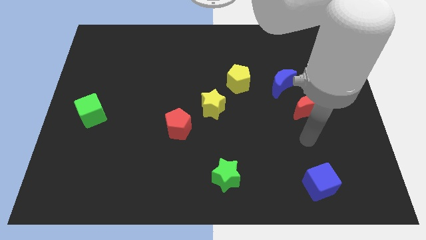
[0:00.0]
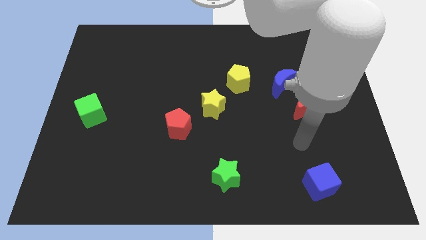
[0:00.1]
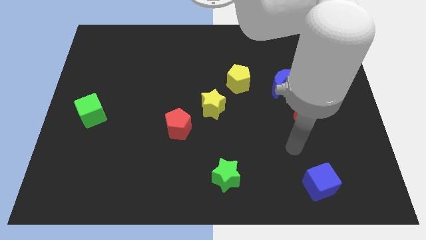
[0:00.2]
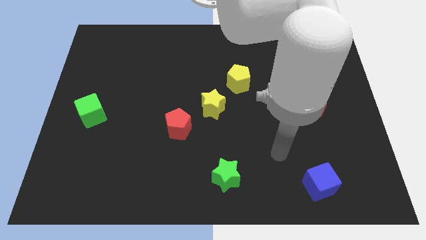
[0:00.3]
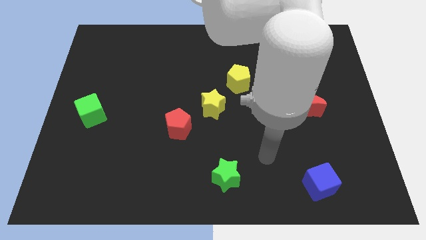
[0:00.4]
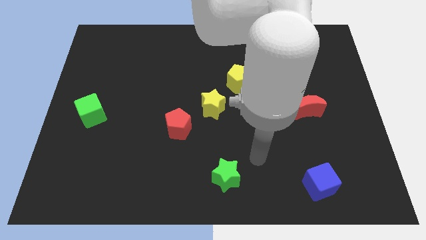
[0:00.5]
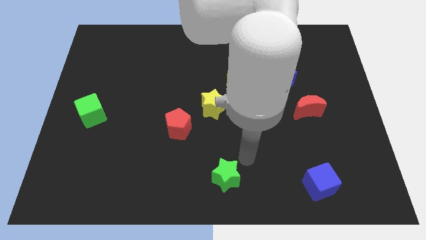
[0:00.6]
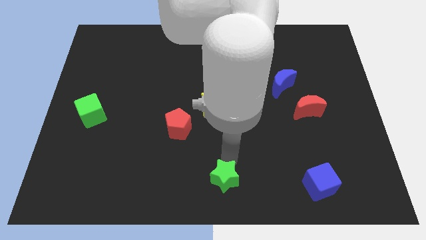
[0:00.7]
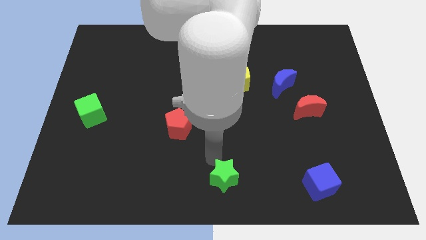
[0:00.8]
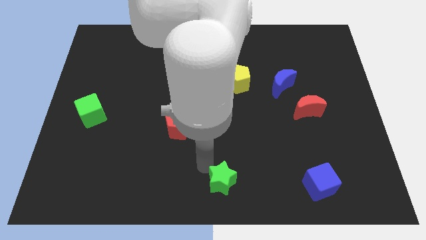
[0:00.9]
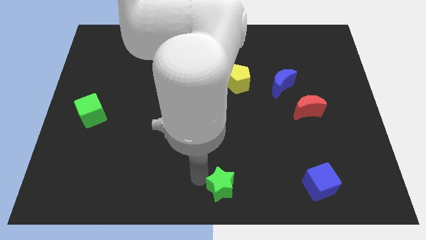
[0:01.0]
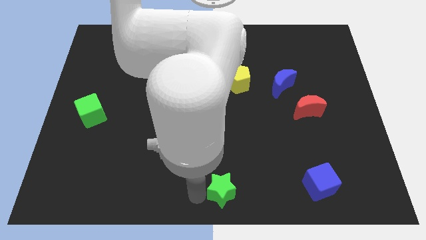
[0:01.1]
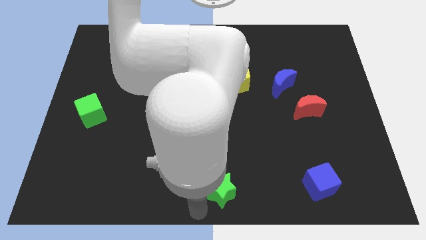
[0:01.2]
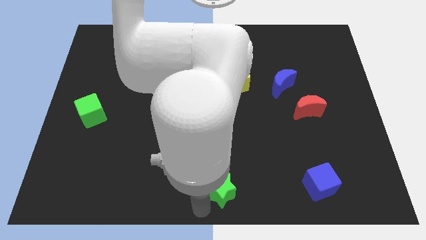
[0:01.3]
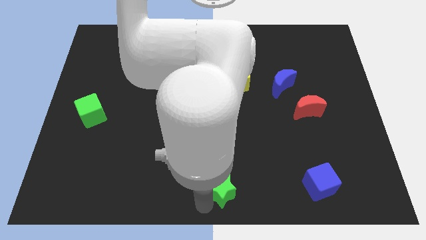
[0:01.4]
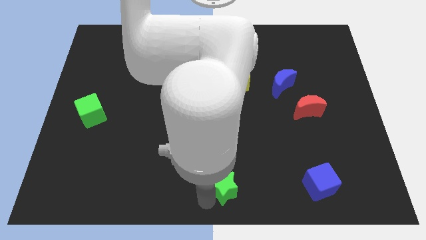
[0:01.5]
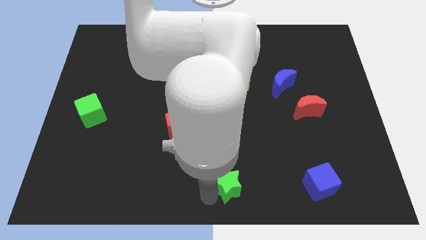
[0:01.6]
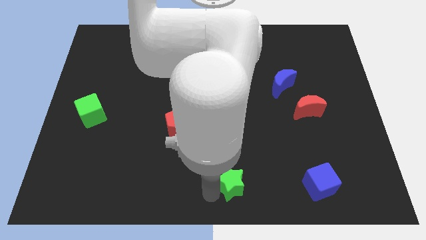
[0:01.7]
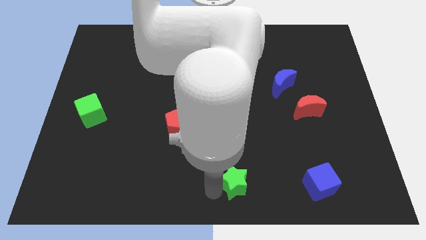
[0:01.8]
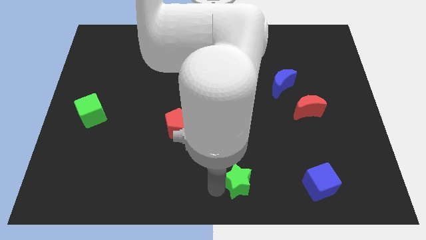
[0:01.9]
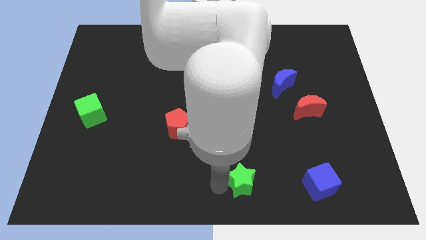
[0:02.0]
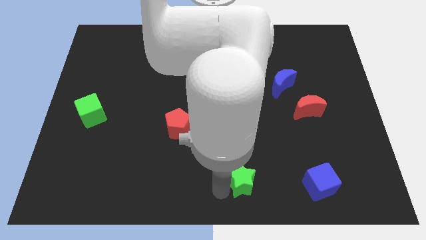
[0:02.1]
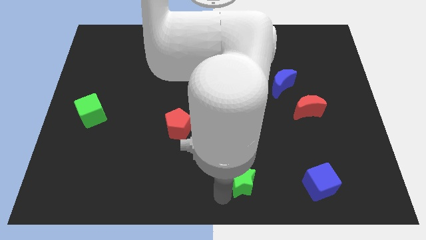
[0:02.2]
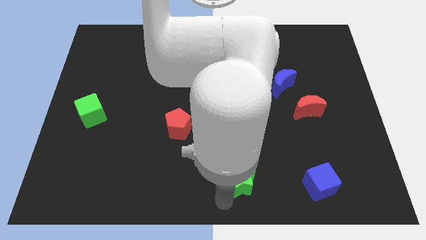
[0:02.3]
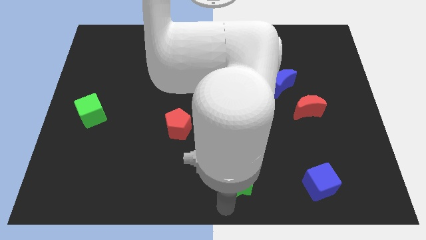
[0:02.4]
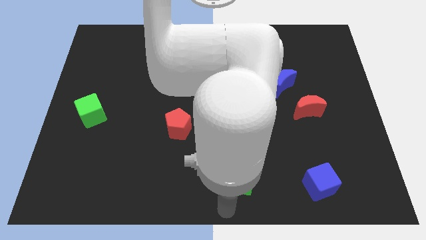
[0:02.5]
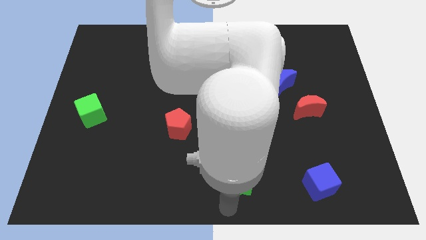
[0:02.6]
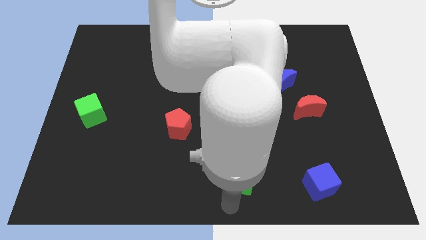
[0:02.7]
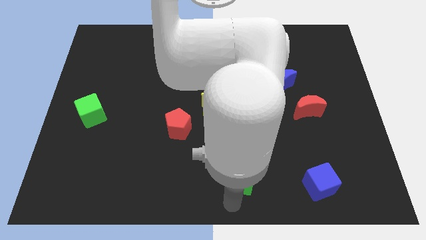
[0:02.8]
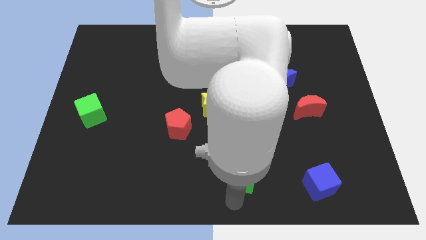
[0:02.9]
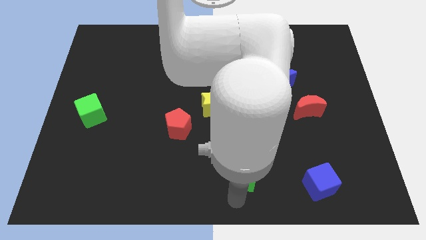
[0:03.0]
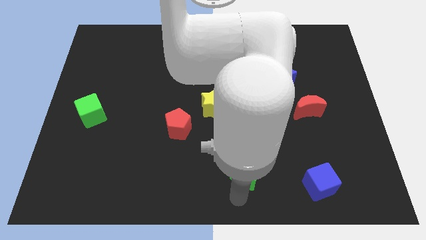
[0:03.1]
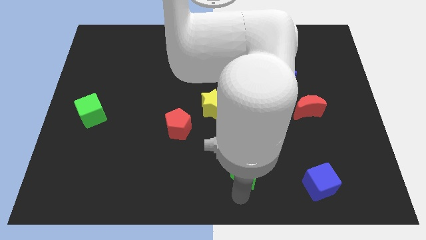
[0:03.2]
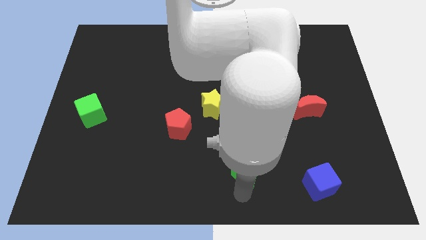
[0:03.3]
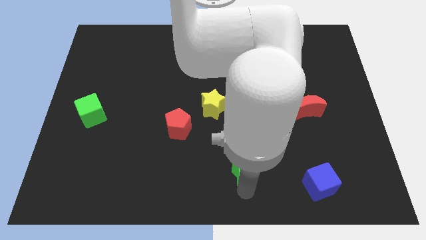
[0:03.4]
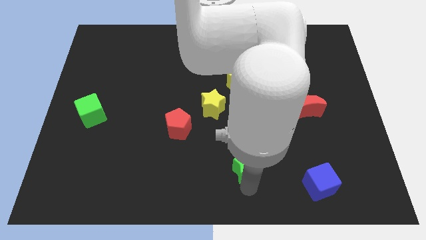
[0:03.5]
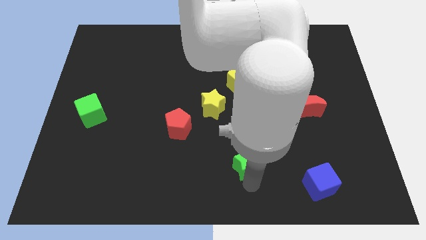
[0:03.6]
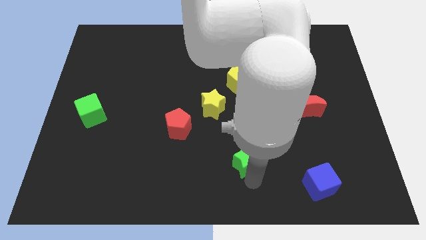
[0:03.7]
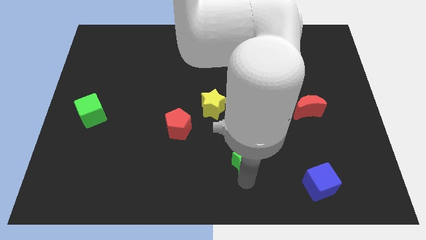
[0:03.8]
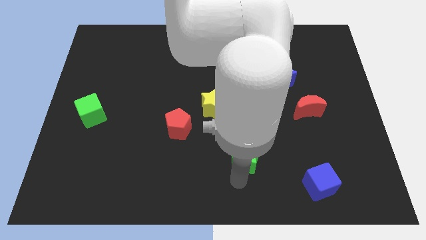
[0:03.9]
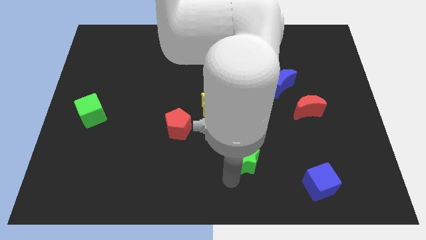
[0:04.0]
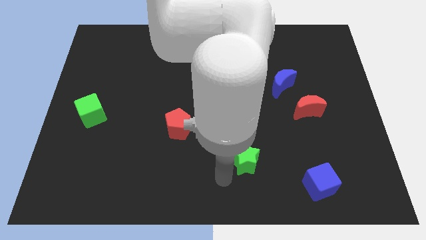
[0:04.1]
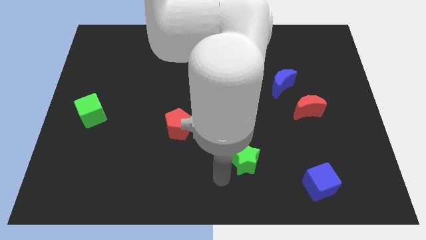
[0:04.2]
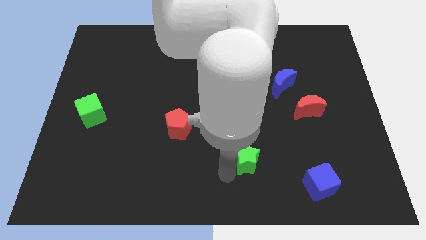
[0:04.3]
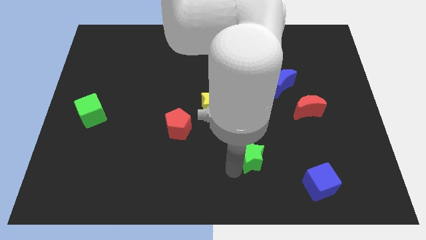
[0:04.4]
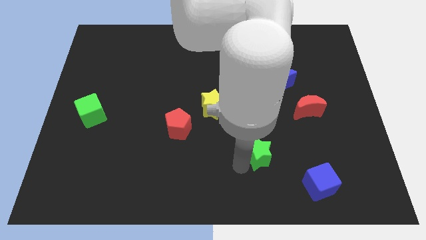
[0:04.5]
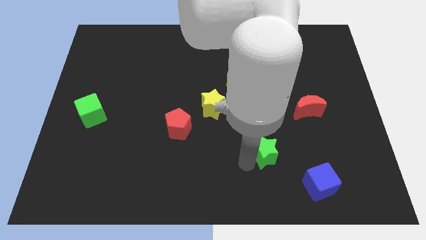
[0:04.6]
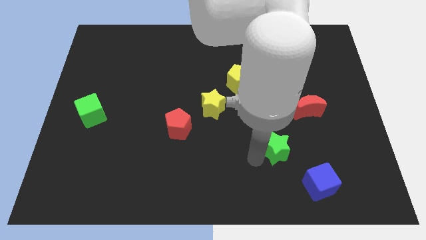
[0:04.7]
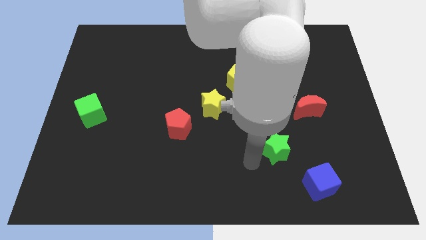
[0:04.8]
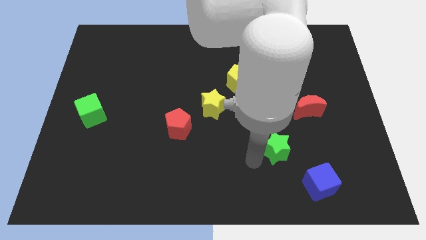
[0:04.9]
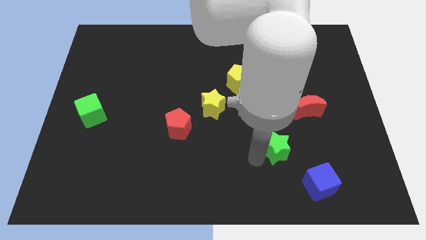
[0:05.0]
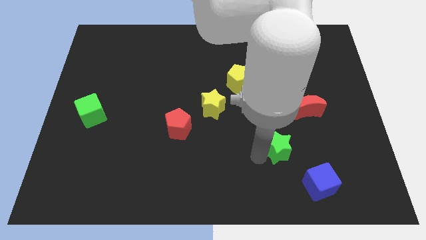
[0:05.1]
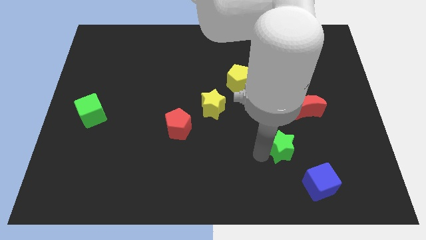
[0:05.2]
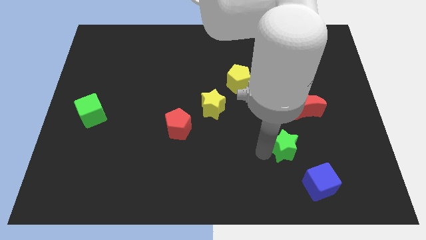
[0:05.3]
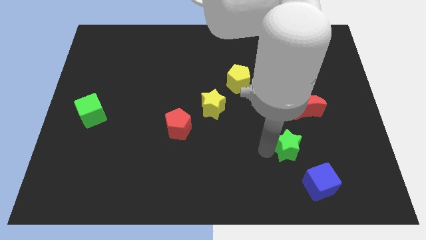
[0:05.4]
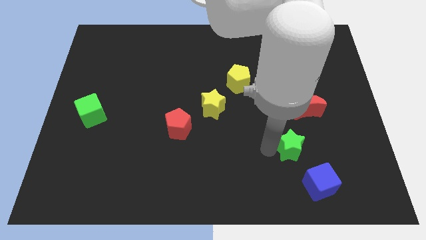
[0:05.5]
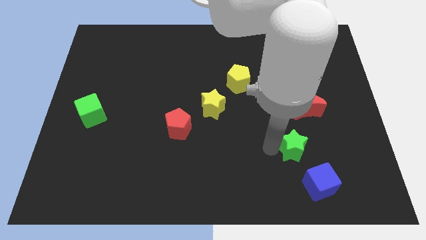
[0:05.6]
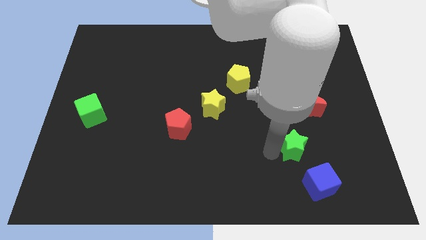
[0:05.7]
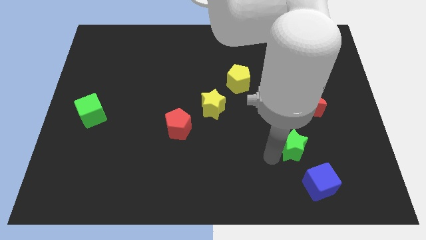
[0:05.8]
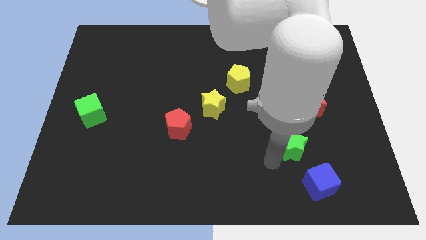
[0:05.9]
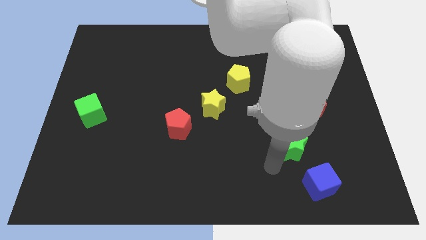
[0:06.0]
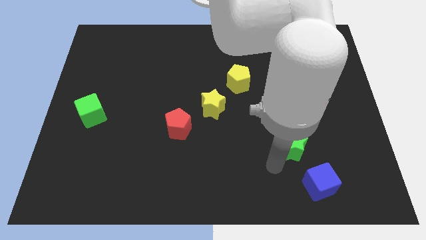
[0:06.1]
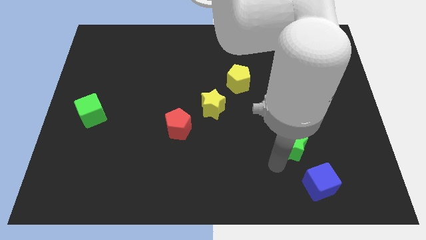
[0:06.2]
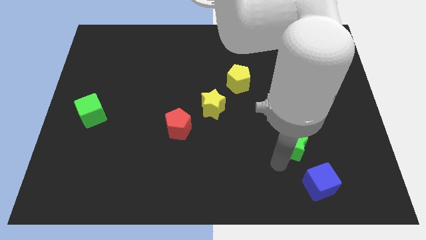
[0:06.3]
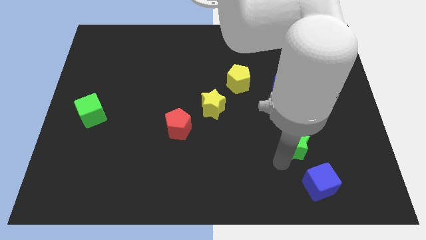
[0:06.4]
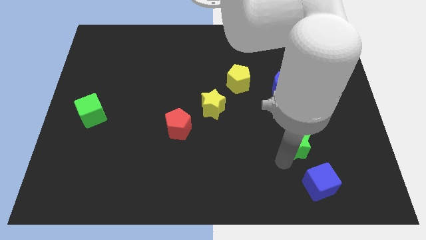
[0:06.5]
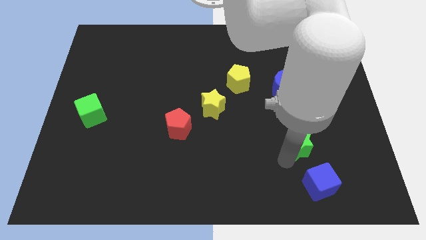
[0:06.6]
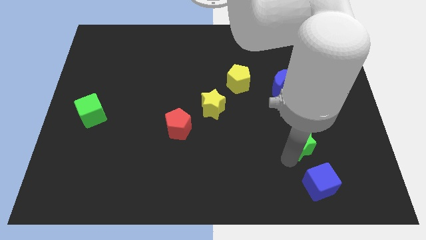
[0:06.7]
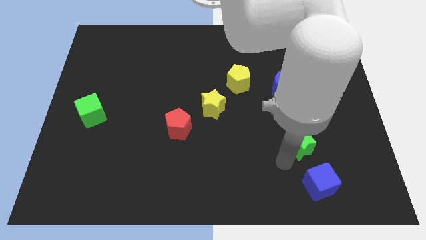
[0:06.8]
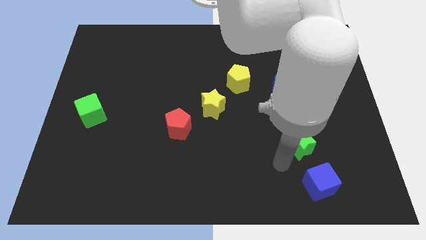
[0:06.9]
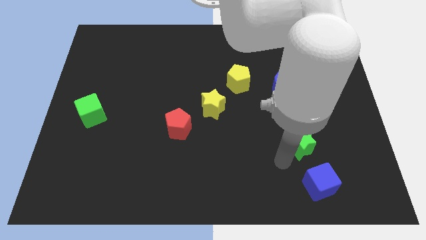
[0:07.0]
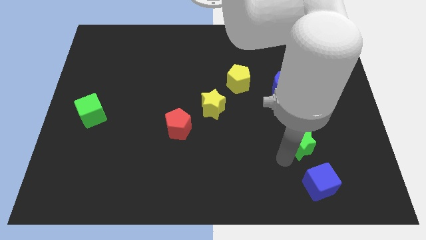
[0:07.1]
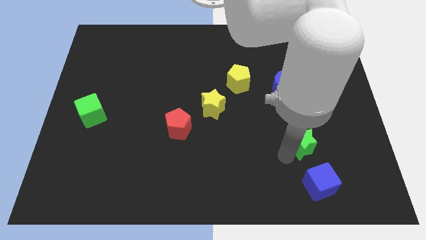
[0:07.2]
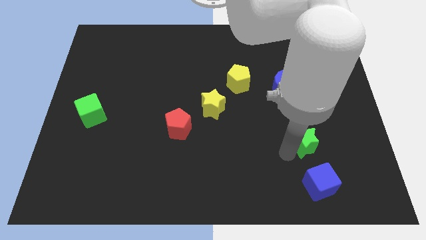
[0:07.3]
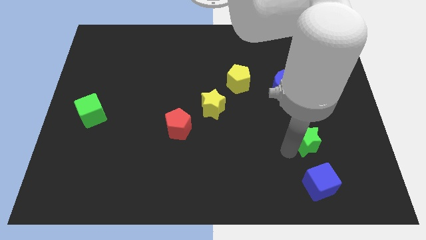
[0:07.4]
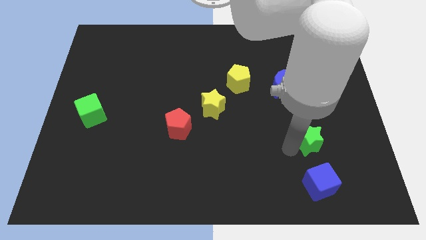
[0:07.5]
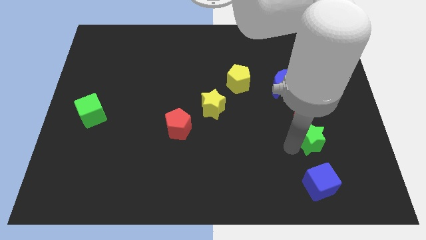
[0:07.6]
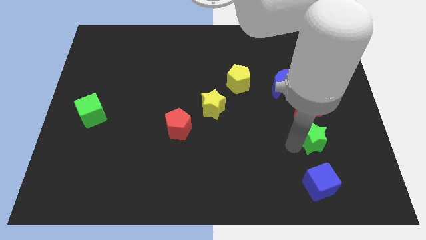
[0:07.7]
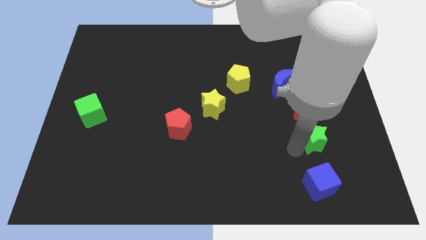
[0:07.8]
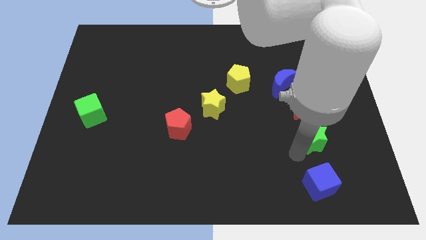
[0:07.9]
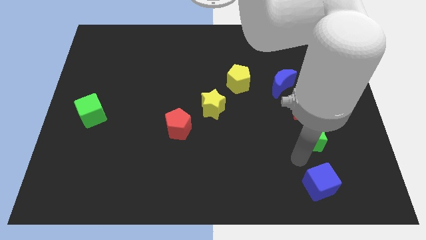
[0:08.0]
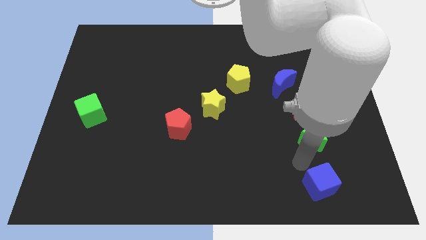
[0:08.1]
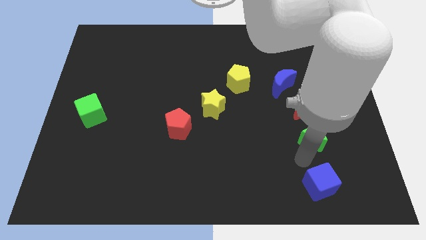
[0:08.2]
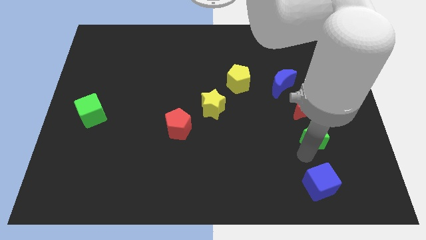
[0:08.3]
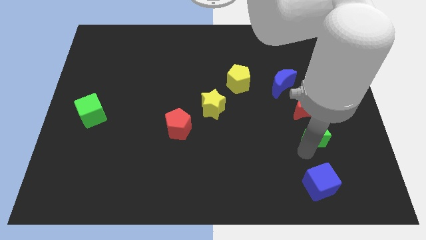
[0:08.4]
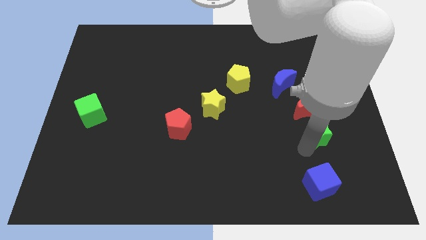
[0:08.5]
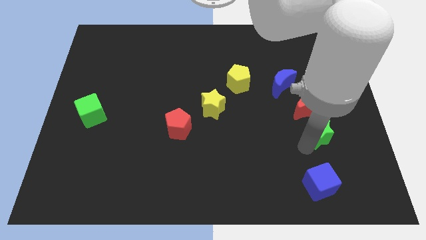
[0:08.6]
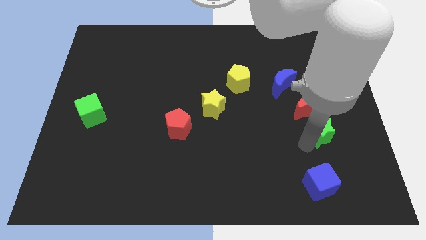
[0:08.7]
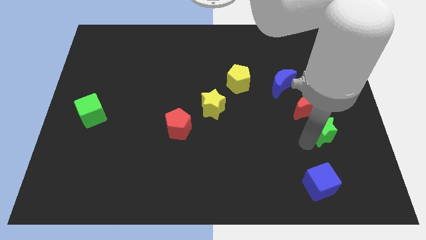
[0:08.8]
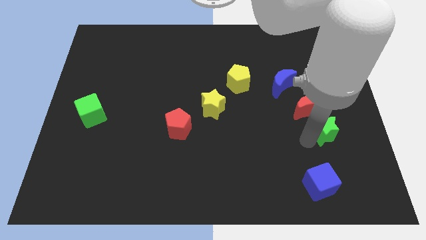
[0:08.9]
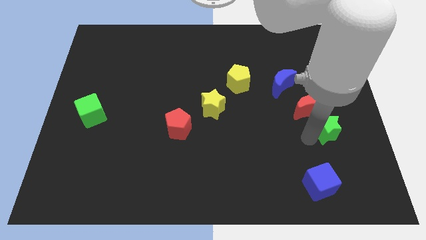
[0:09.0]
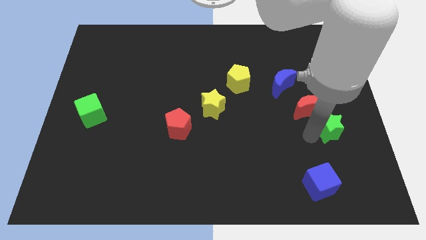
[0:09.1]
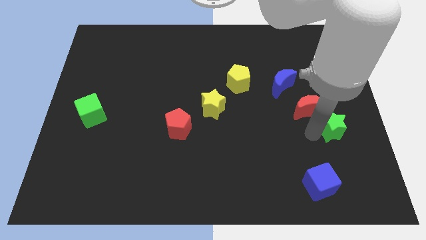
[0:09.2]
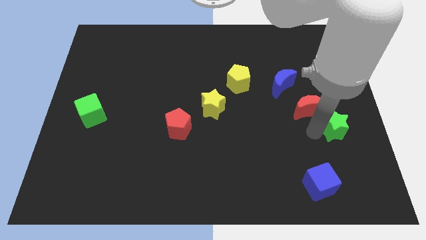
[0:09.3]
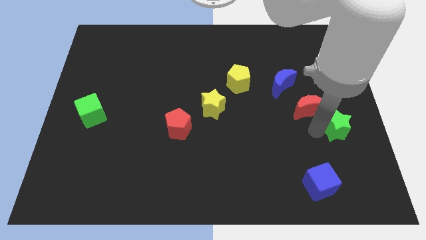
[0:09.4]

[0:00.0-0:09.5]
push the green star to the right side of the board
